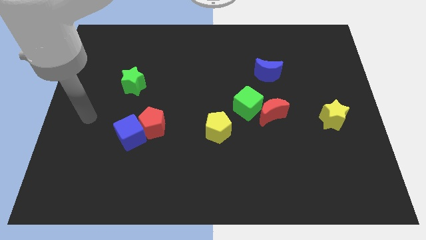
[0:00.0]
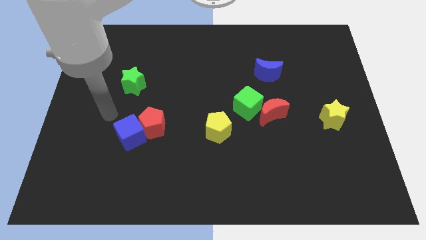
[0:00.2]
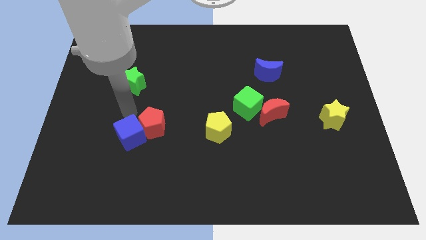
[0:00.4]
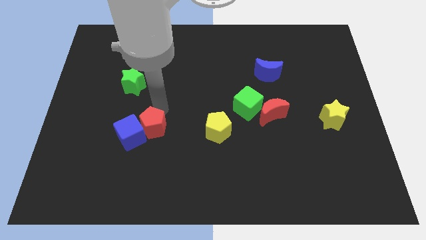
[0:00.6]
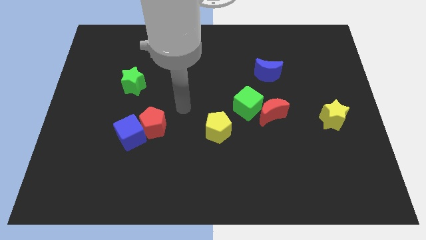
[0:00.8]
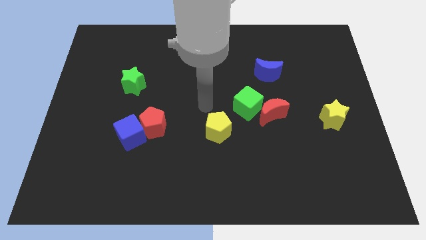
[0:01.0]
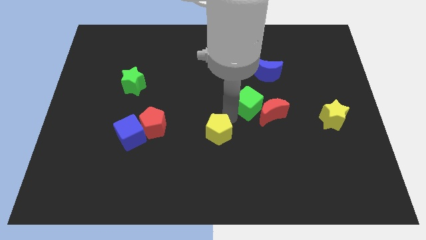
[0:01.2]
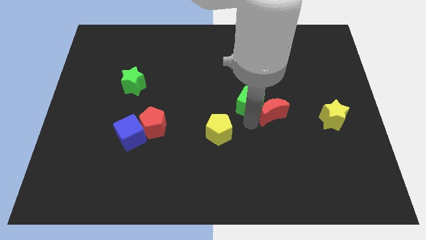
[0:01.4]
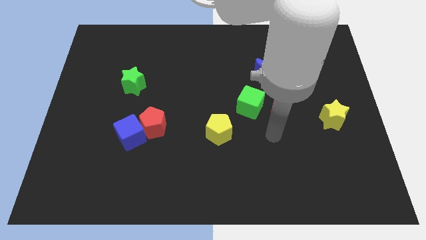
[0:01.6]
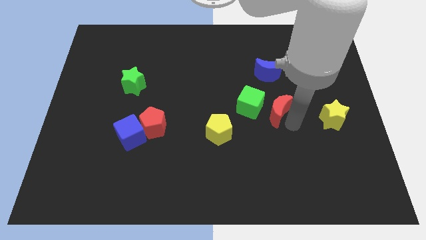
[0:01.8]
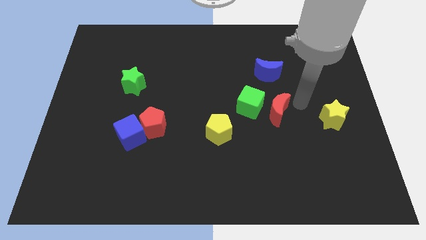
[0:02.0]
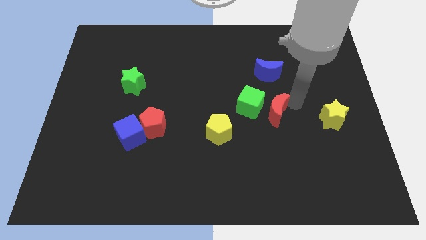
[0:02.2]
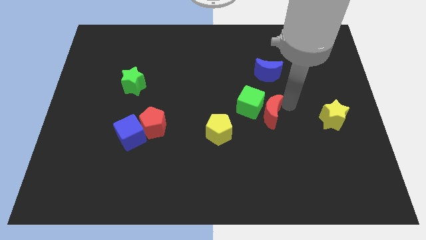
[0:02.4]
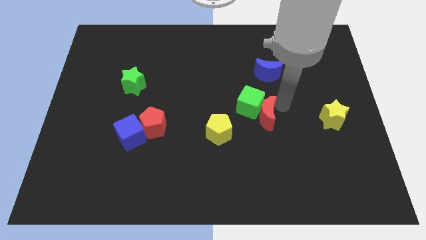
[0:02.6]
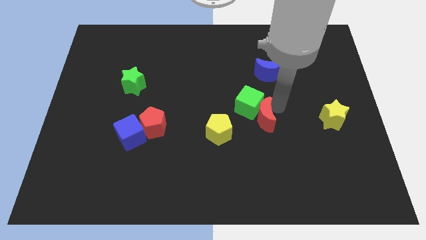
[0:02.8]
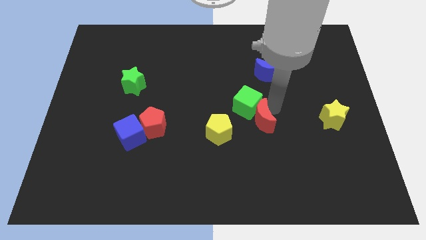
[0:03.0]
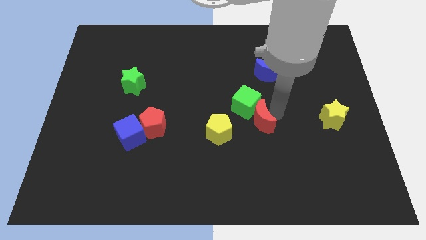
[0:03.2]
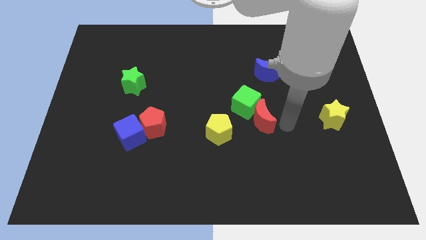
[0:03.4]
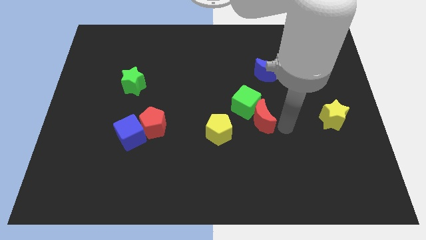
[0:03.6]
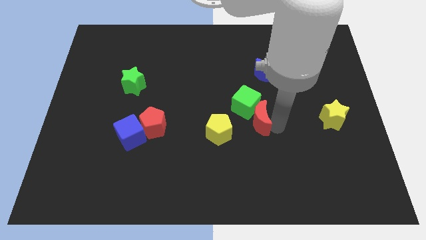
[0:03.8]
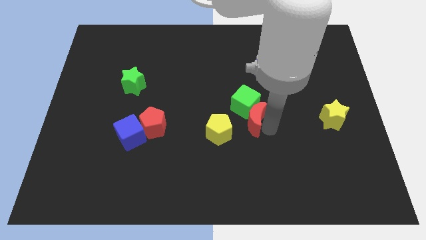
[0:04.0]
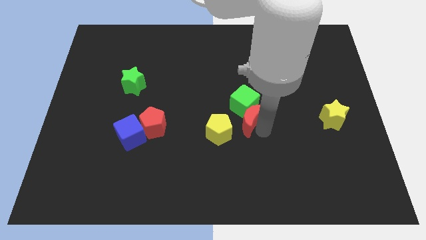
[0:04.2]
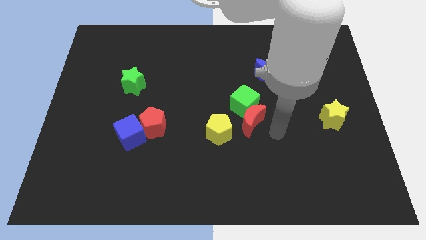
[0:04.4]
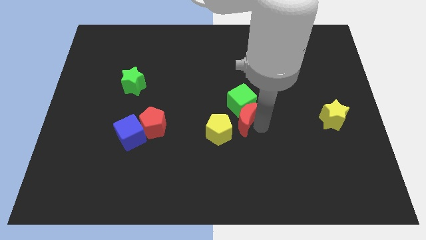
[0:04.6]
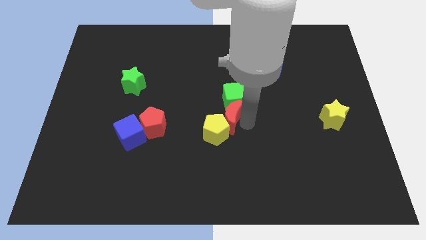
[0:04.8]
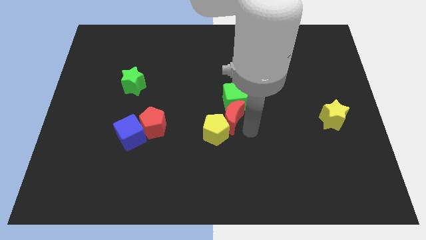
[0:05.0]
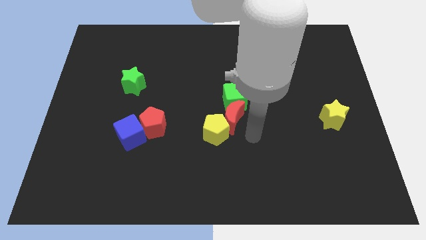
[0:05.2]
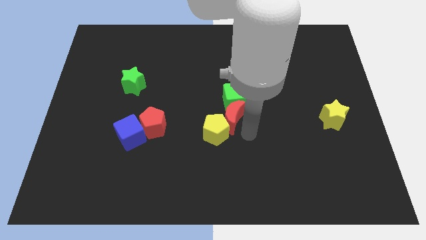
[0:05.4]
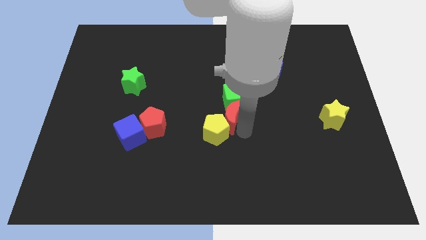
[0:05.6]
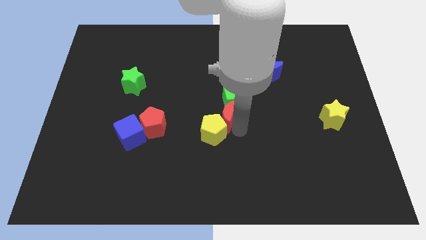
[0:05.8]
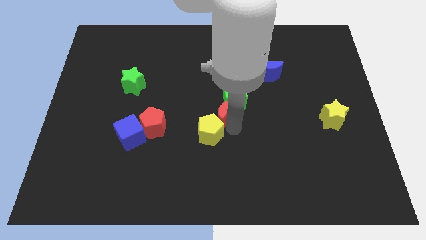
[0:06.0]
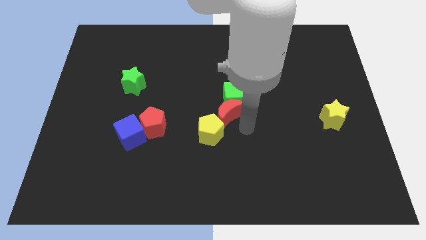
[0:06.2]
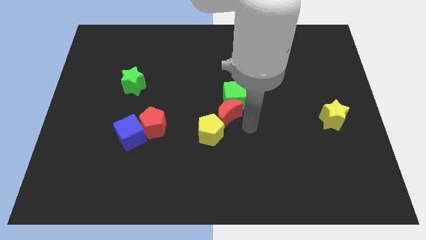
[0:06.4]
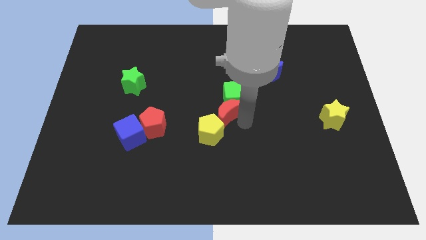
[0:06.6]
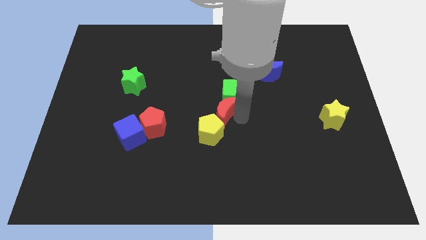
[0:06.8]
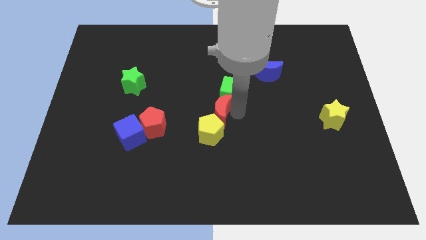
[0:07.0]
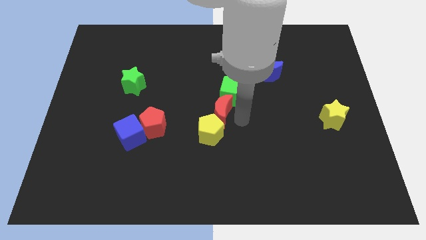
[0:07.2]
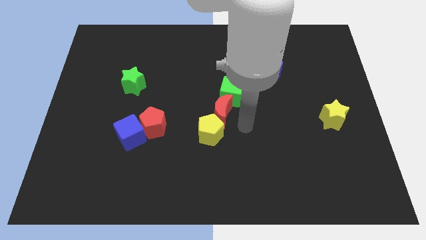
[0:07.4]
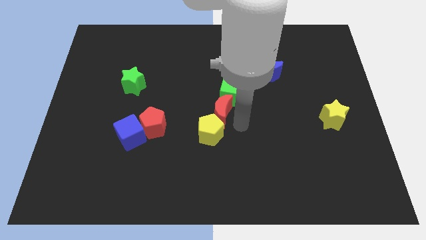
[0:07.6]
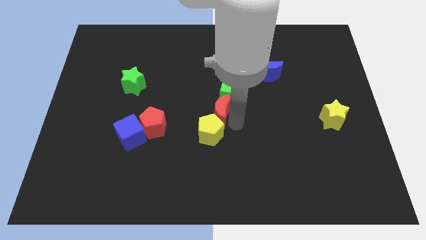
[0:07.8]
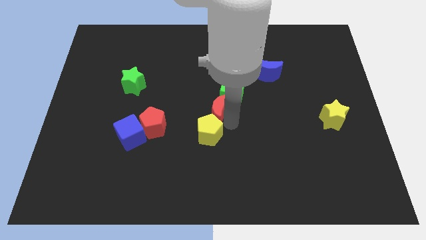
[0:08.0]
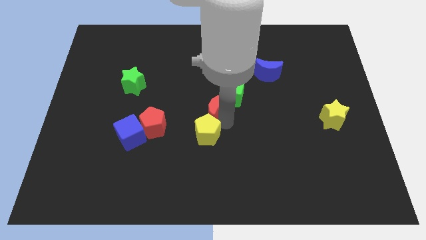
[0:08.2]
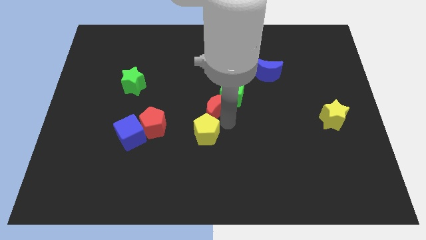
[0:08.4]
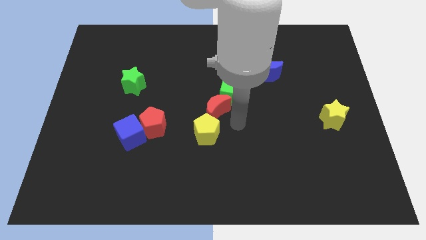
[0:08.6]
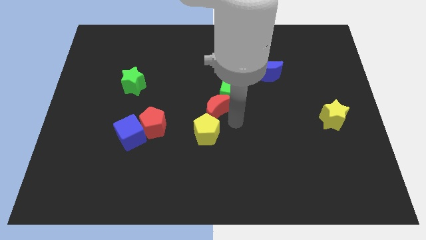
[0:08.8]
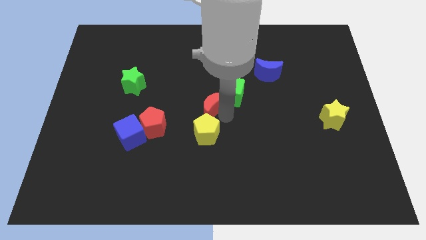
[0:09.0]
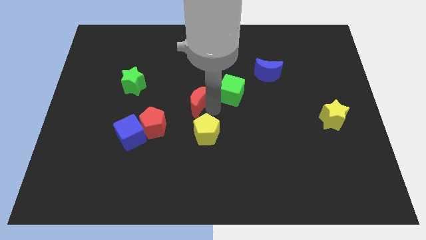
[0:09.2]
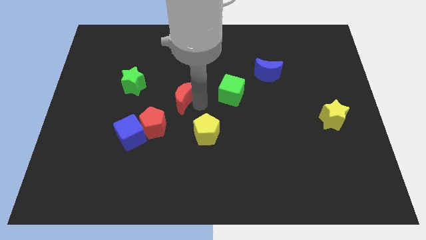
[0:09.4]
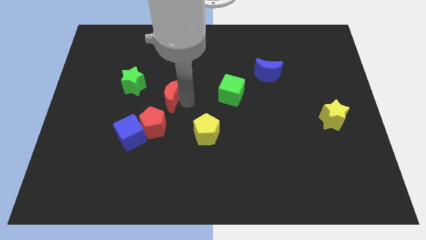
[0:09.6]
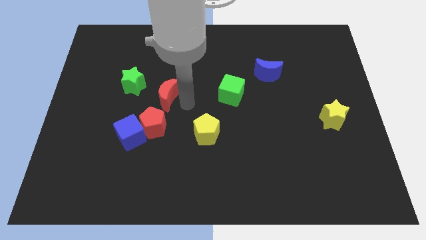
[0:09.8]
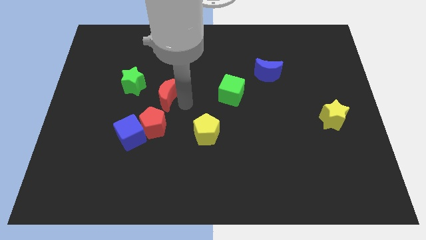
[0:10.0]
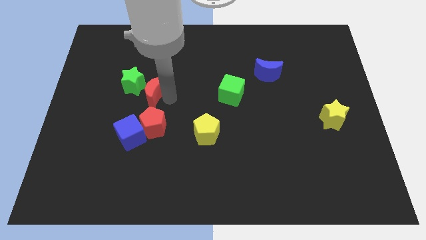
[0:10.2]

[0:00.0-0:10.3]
slide the red moon close to the green star

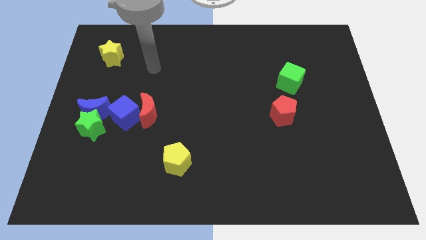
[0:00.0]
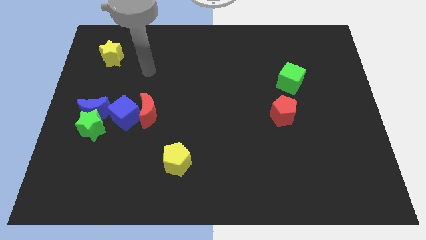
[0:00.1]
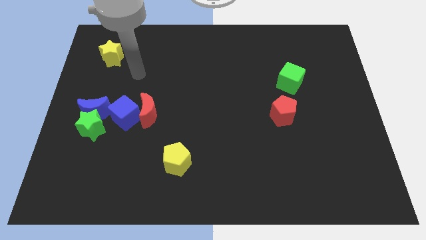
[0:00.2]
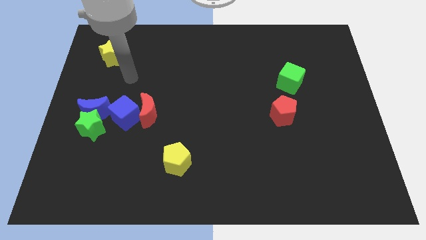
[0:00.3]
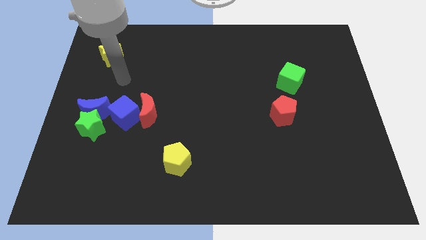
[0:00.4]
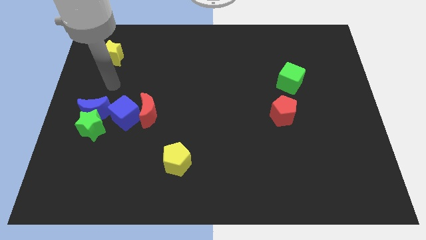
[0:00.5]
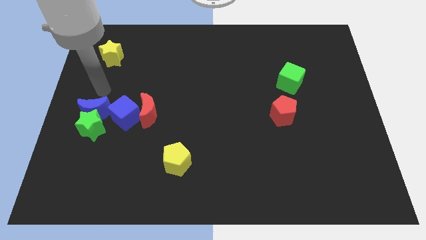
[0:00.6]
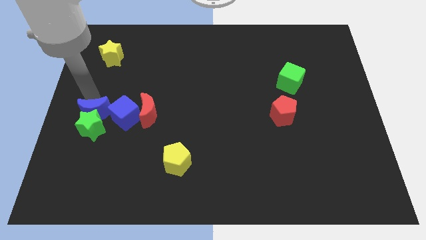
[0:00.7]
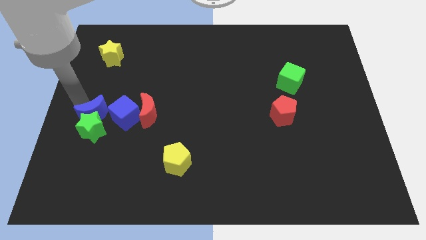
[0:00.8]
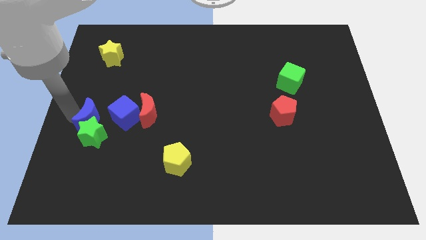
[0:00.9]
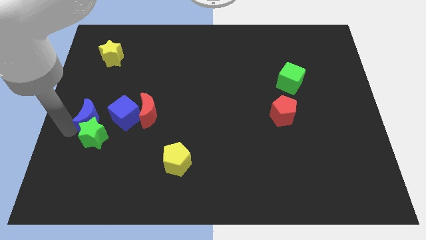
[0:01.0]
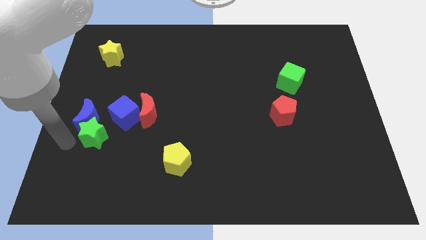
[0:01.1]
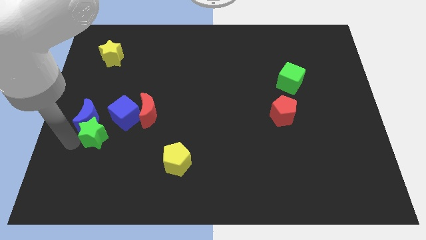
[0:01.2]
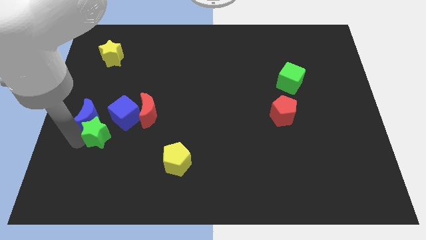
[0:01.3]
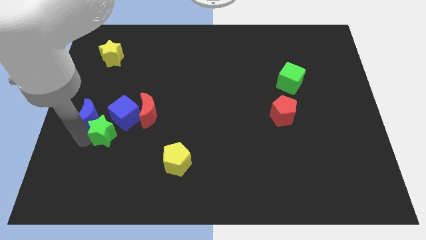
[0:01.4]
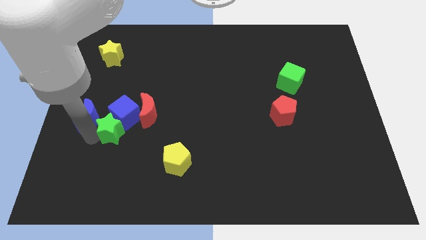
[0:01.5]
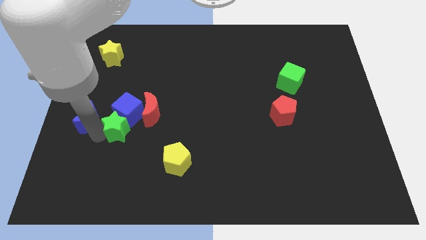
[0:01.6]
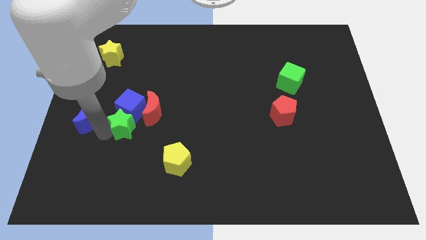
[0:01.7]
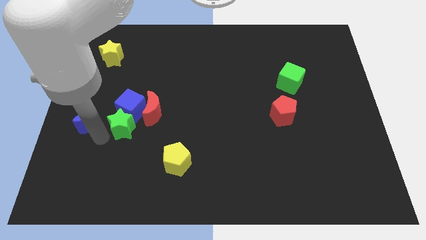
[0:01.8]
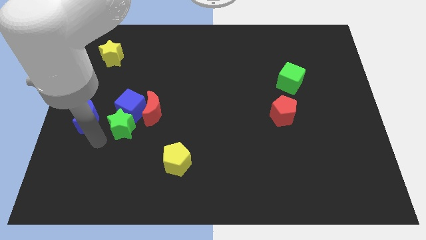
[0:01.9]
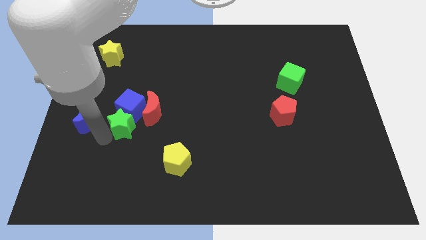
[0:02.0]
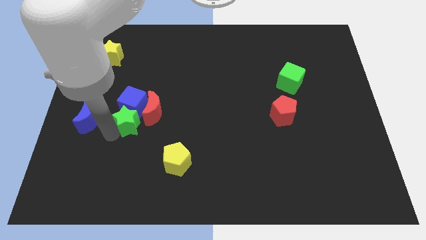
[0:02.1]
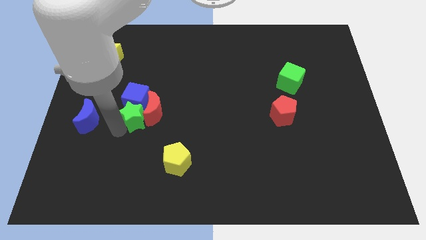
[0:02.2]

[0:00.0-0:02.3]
slide the green star to the red moon
